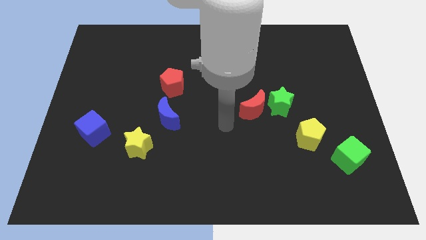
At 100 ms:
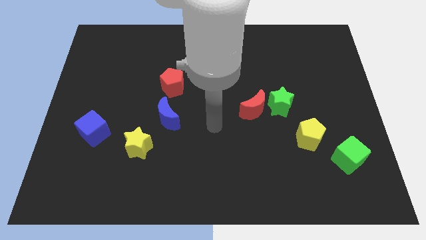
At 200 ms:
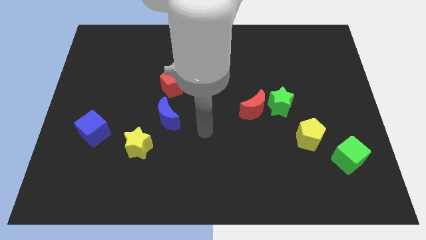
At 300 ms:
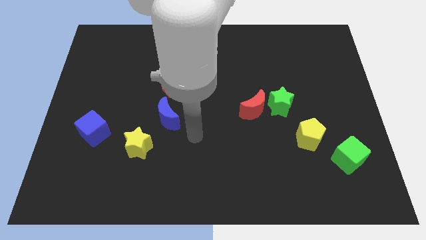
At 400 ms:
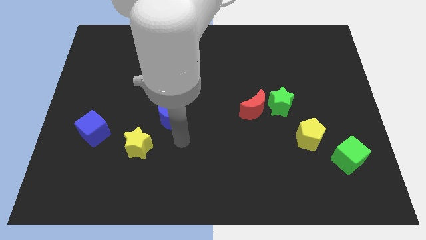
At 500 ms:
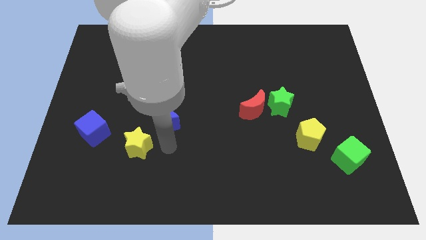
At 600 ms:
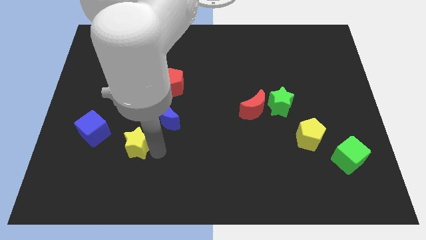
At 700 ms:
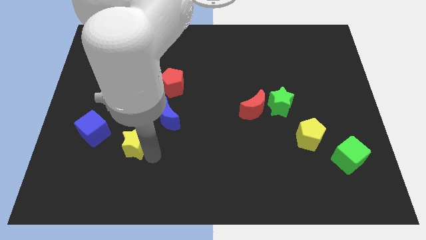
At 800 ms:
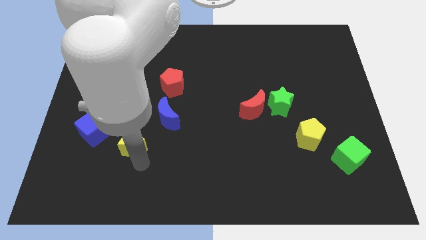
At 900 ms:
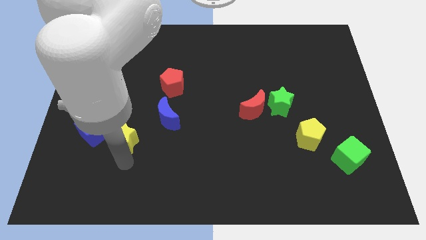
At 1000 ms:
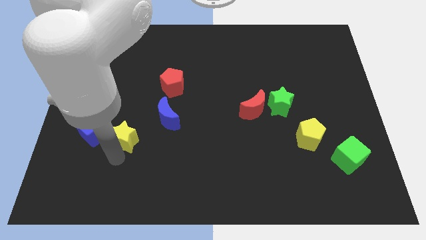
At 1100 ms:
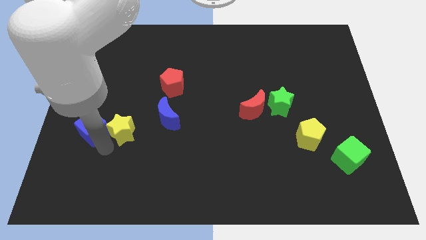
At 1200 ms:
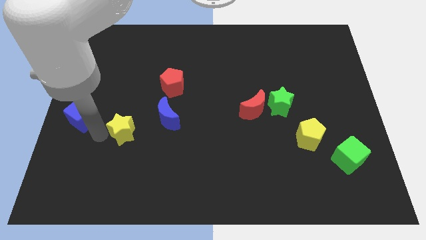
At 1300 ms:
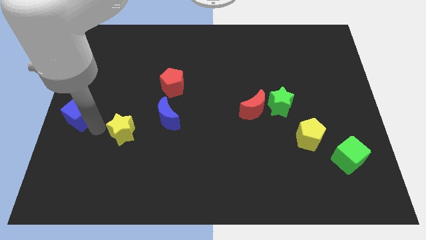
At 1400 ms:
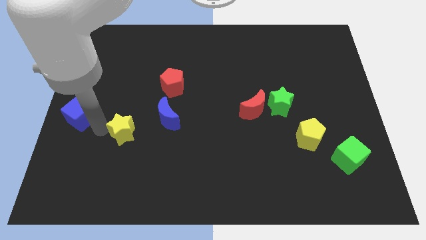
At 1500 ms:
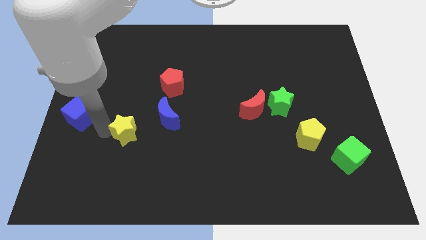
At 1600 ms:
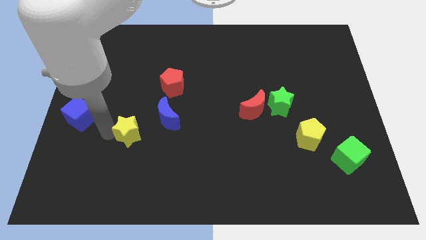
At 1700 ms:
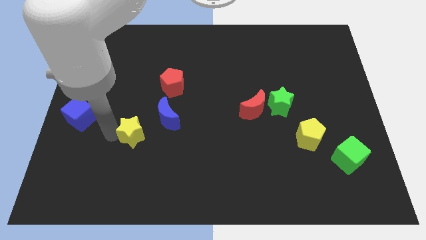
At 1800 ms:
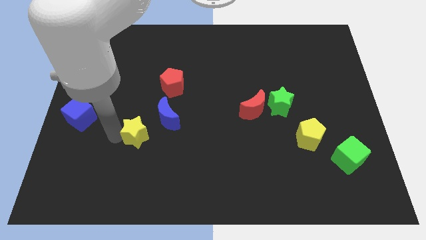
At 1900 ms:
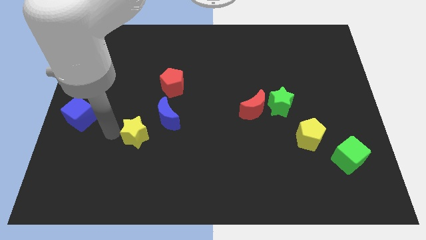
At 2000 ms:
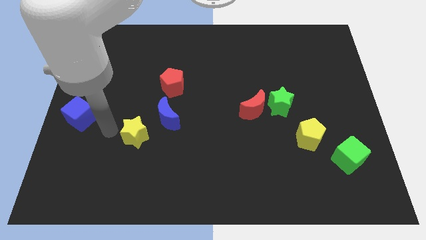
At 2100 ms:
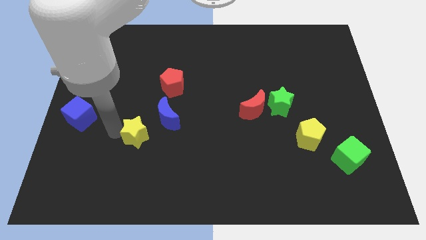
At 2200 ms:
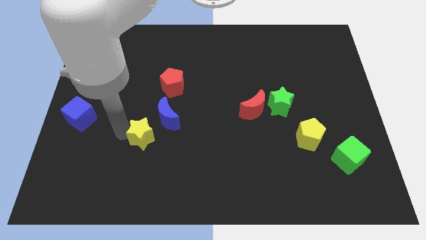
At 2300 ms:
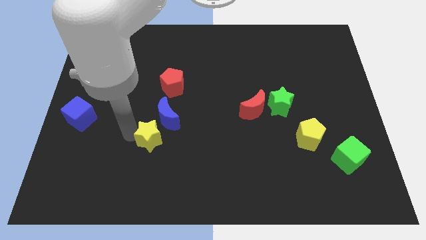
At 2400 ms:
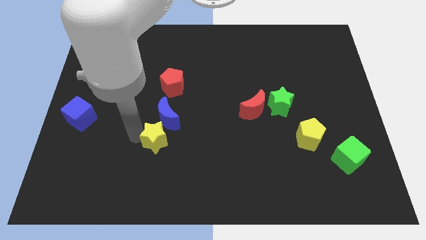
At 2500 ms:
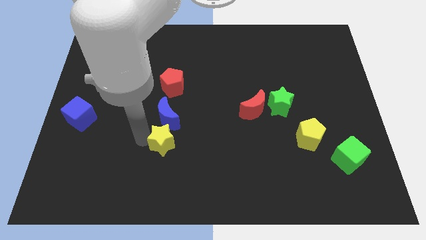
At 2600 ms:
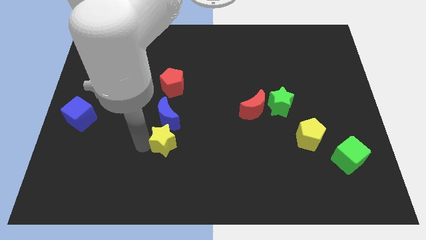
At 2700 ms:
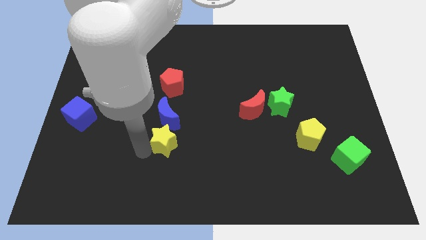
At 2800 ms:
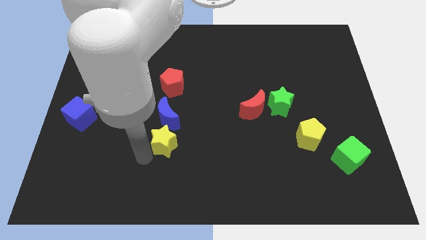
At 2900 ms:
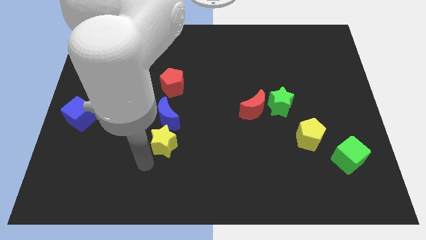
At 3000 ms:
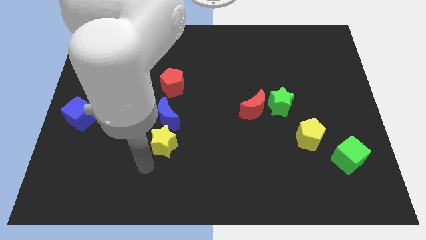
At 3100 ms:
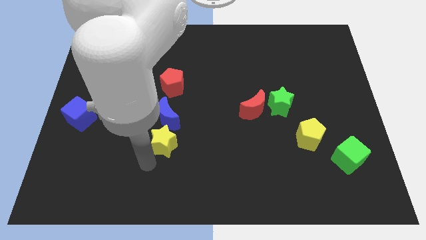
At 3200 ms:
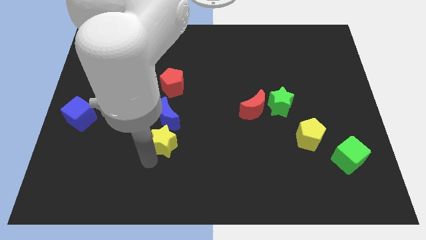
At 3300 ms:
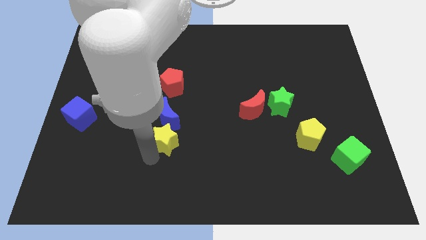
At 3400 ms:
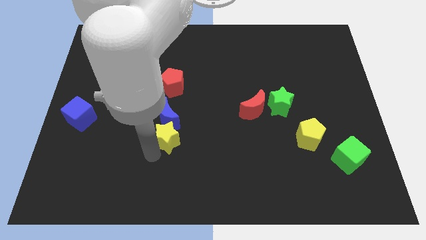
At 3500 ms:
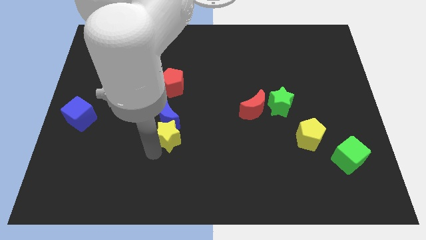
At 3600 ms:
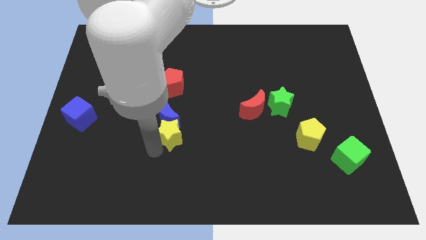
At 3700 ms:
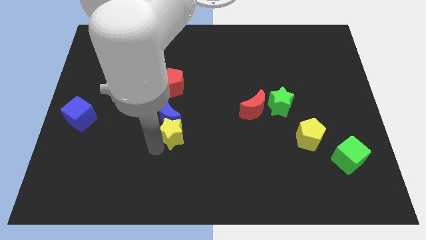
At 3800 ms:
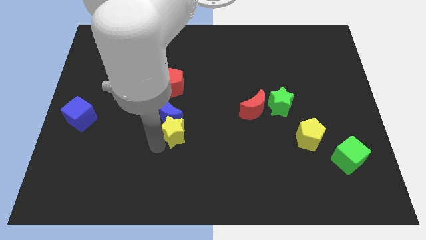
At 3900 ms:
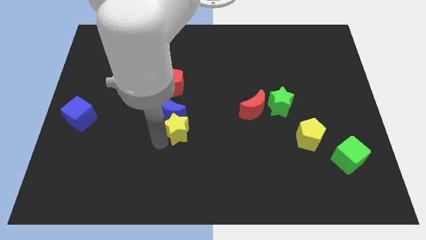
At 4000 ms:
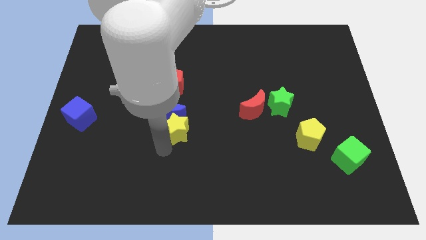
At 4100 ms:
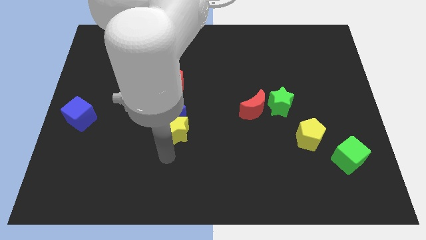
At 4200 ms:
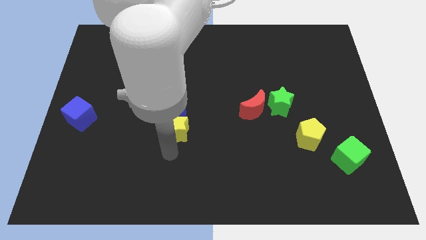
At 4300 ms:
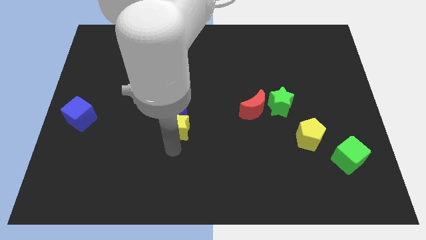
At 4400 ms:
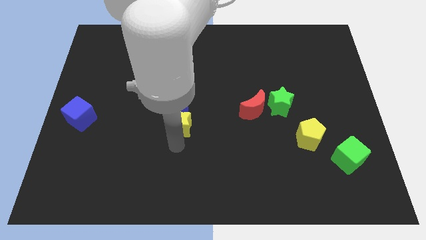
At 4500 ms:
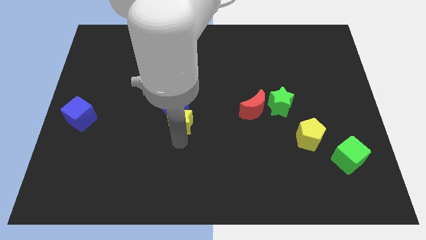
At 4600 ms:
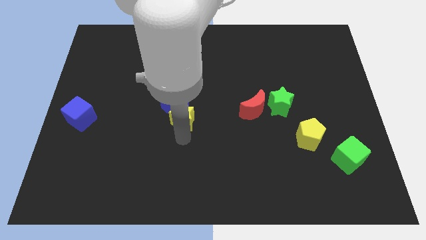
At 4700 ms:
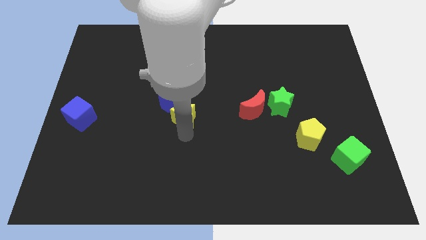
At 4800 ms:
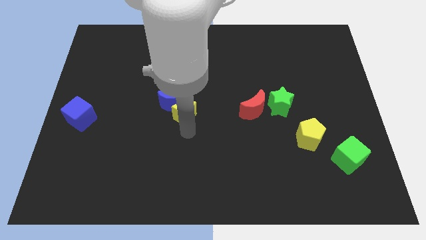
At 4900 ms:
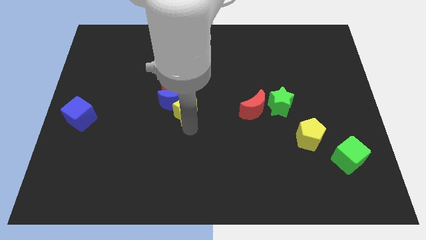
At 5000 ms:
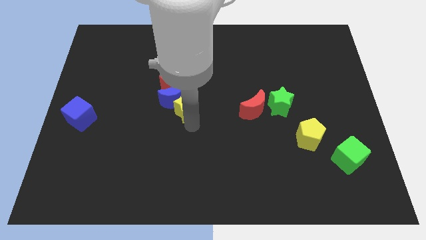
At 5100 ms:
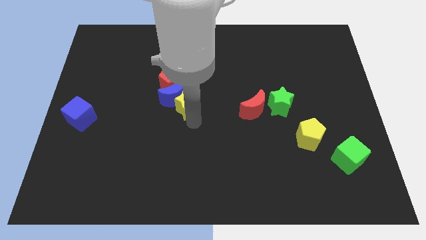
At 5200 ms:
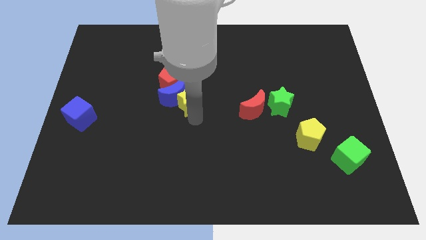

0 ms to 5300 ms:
put the yellow star to the top right side of the blue moon

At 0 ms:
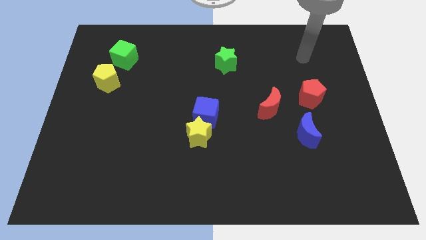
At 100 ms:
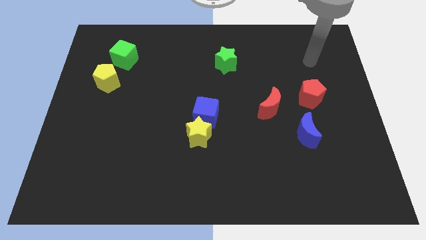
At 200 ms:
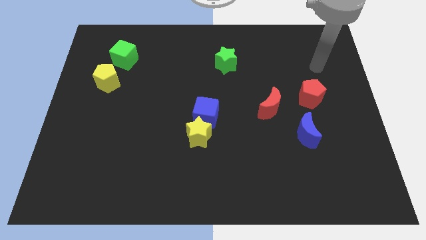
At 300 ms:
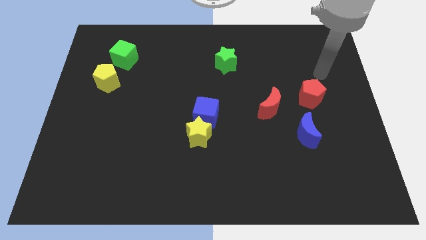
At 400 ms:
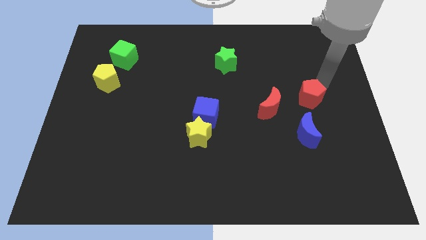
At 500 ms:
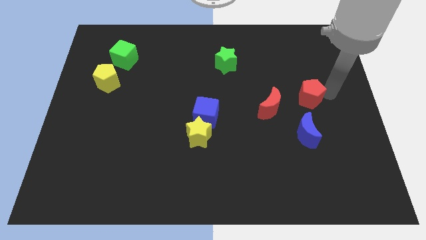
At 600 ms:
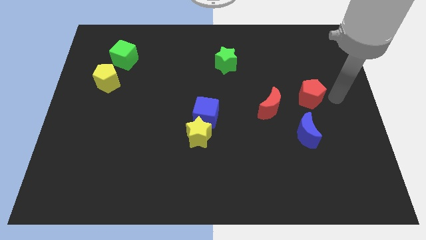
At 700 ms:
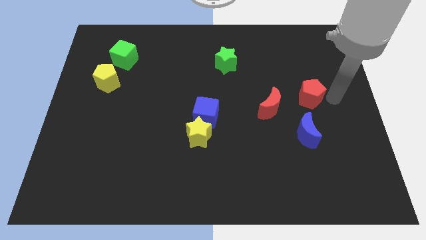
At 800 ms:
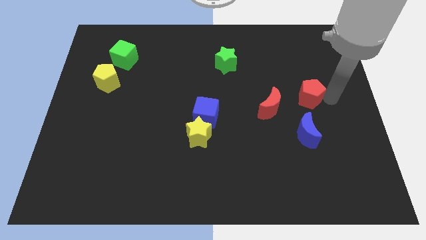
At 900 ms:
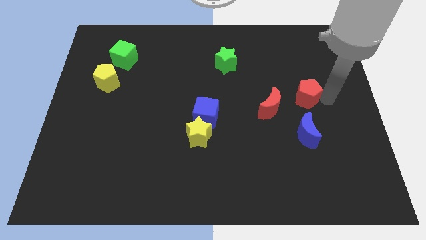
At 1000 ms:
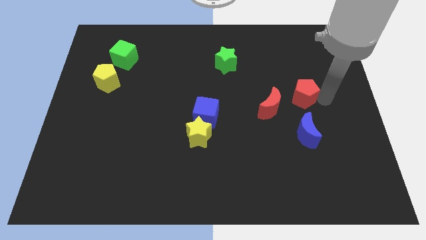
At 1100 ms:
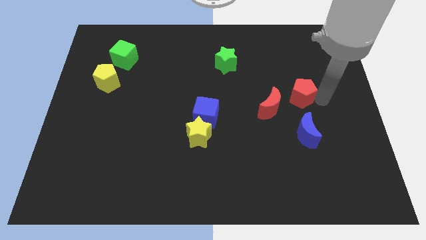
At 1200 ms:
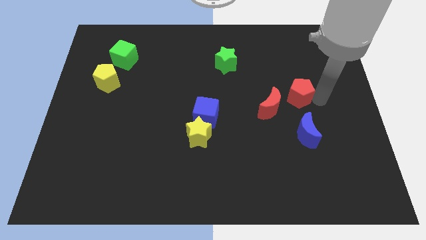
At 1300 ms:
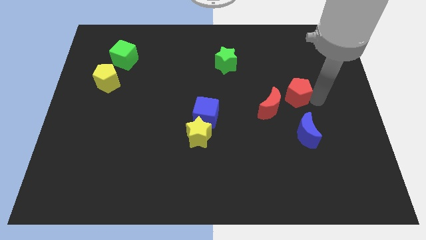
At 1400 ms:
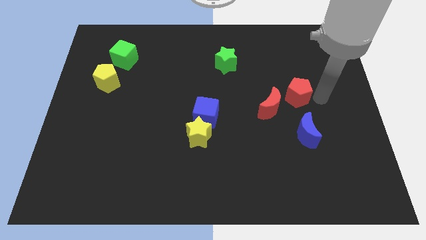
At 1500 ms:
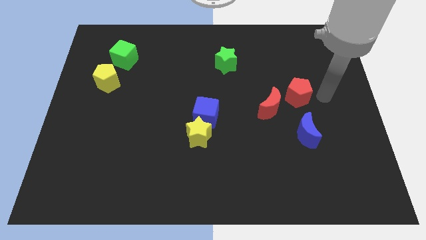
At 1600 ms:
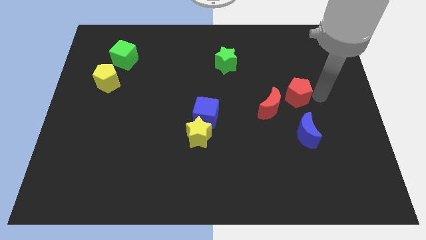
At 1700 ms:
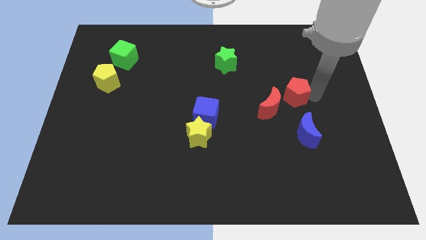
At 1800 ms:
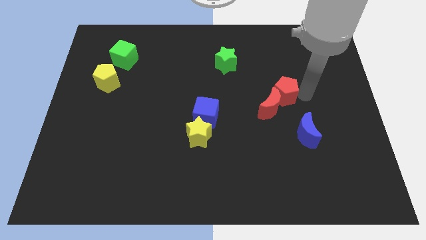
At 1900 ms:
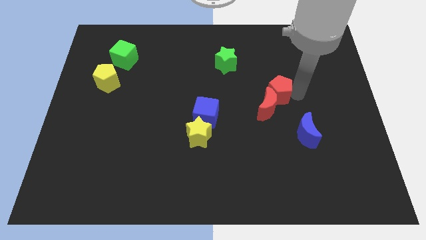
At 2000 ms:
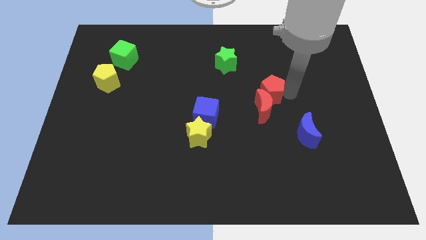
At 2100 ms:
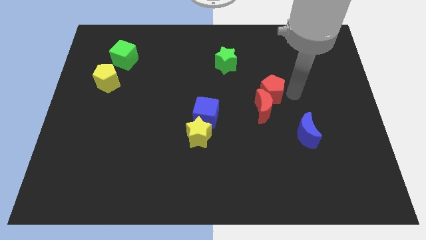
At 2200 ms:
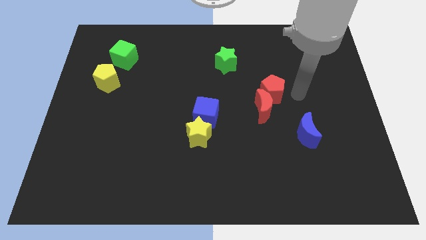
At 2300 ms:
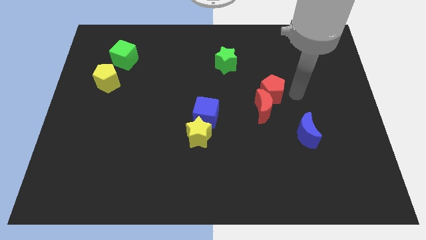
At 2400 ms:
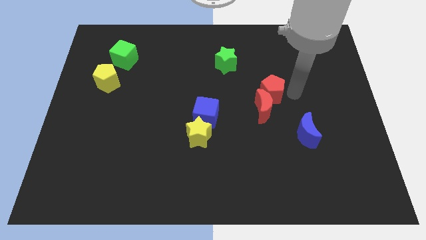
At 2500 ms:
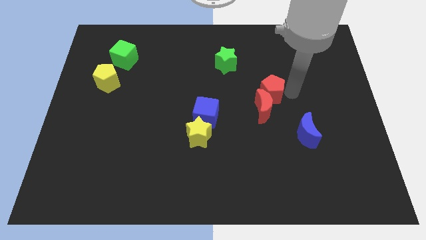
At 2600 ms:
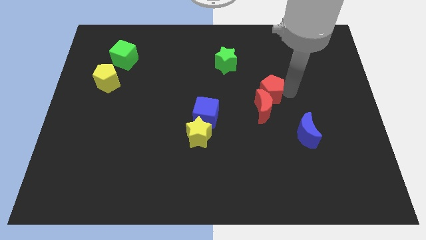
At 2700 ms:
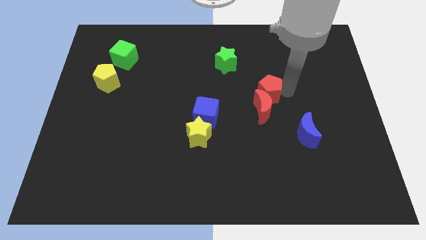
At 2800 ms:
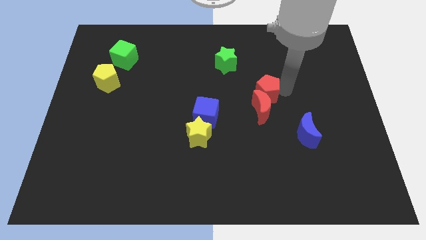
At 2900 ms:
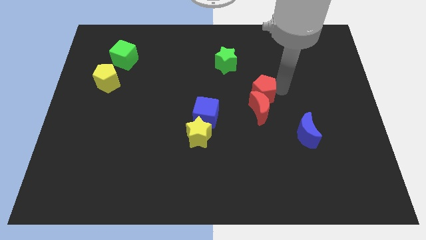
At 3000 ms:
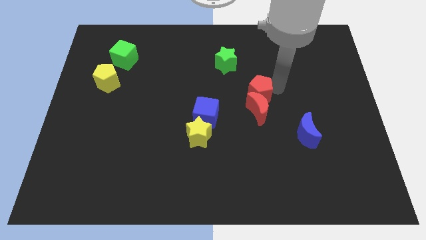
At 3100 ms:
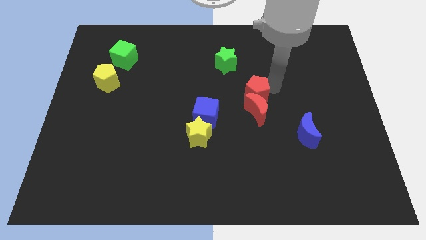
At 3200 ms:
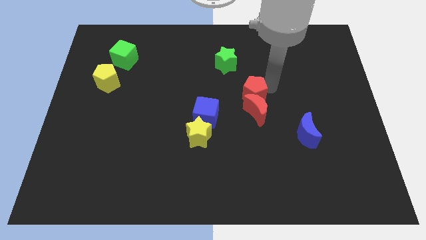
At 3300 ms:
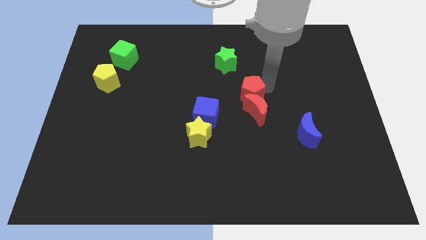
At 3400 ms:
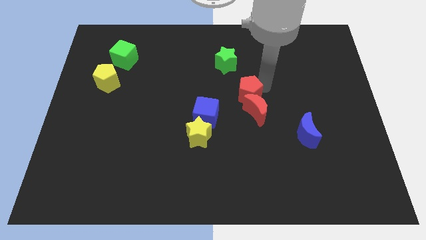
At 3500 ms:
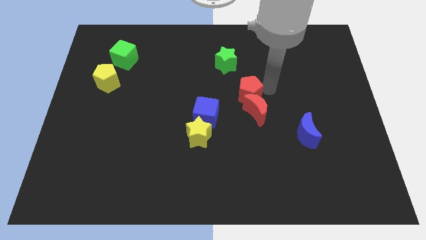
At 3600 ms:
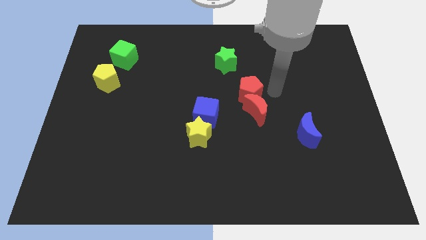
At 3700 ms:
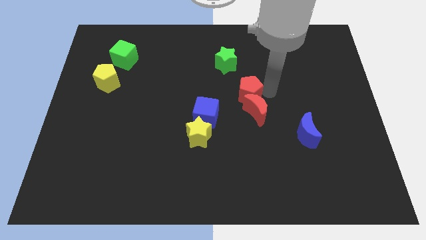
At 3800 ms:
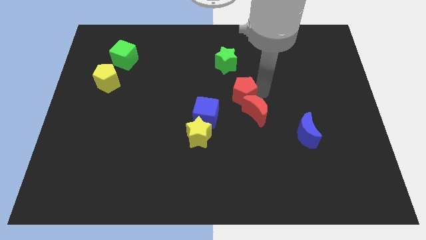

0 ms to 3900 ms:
slide the red pentagon to the bottom side of the green star
